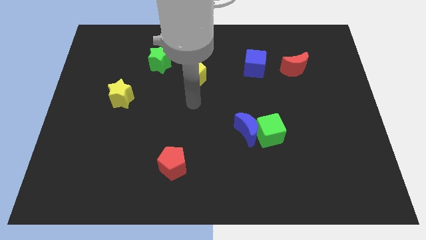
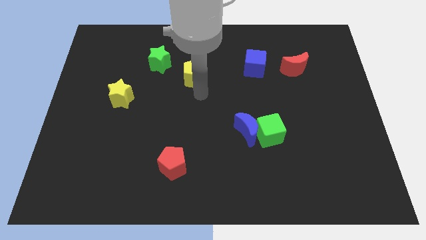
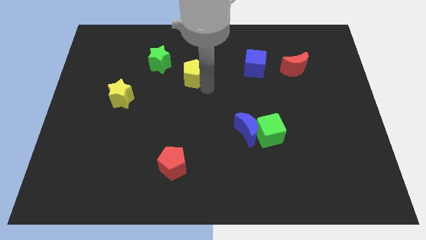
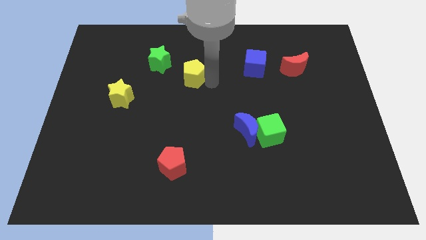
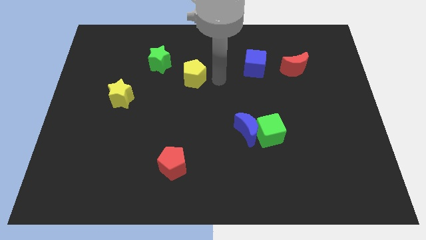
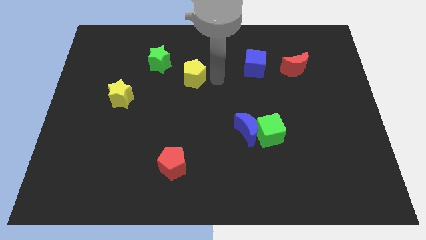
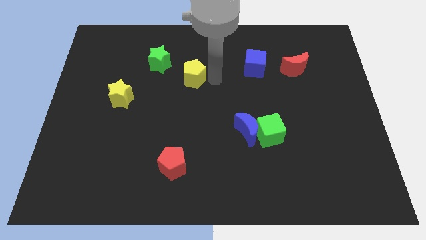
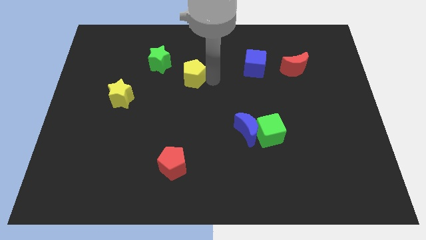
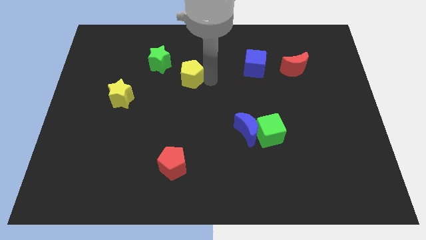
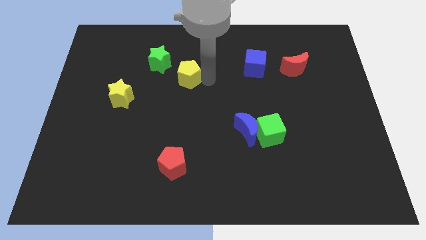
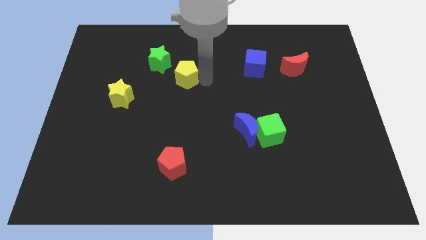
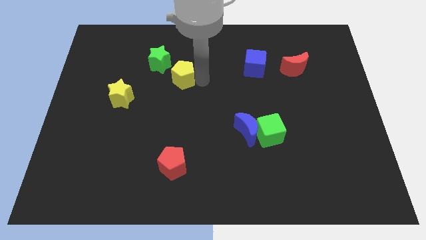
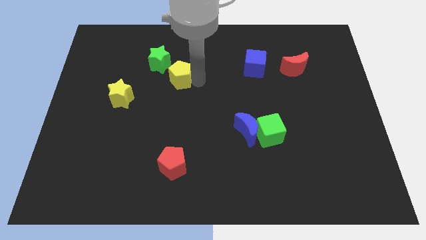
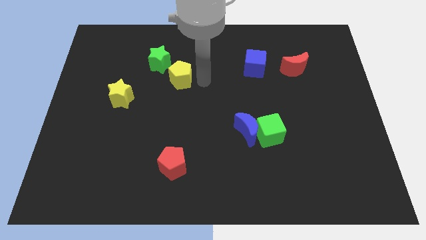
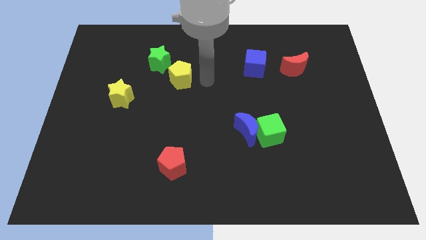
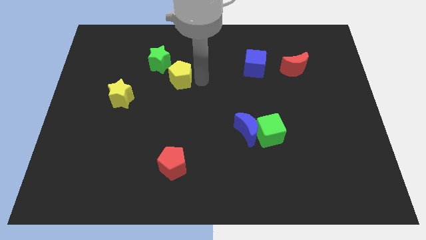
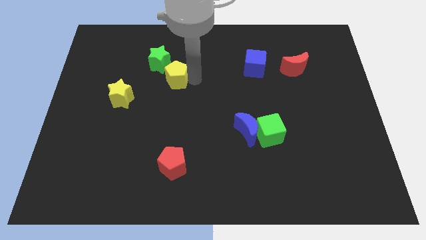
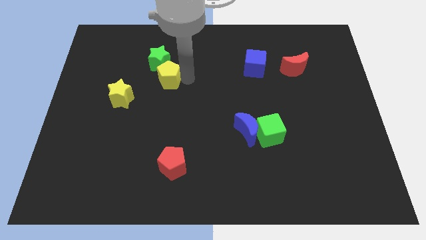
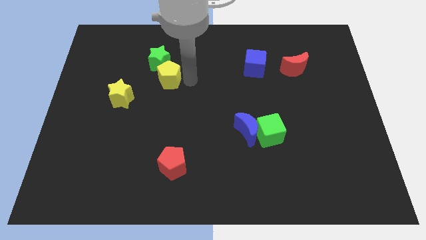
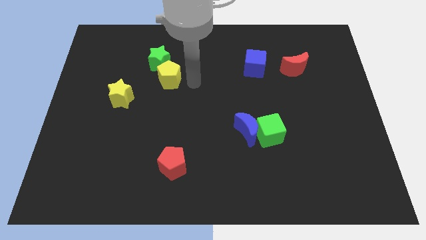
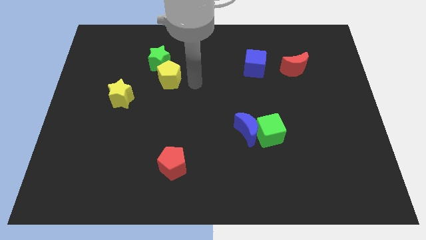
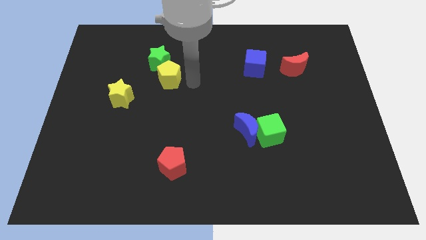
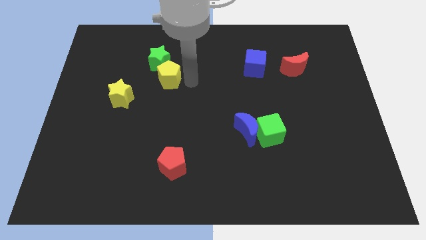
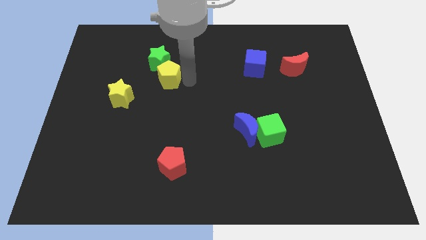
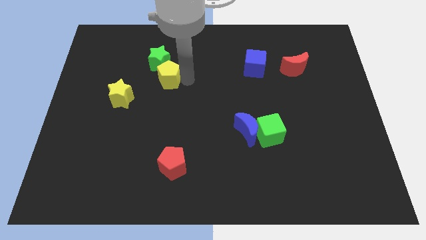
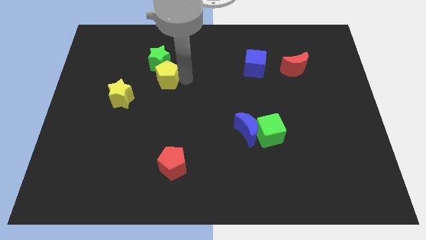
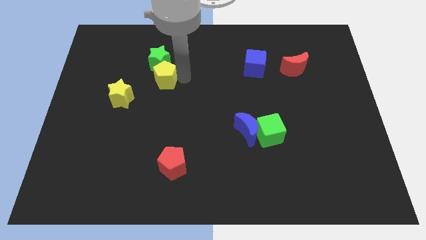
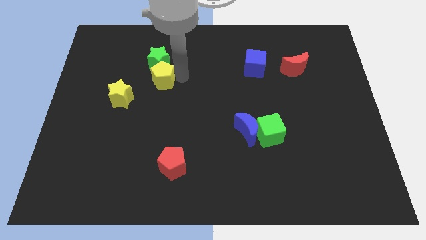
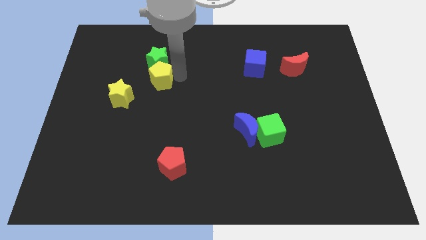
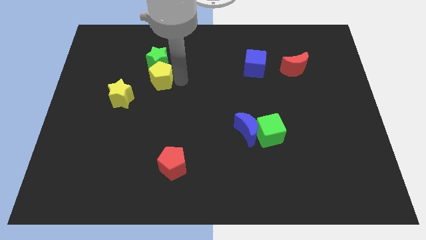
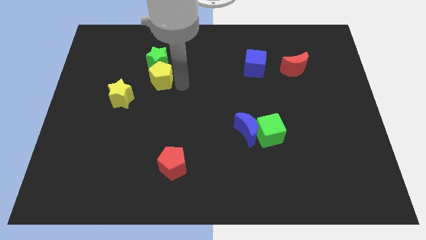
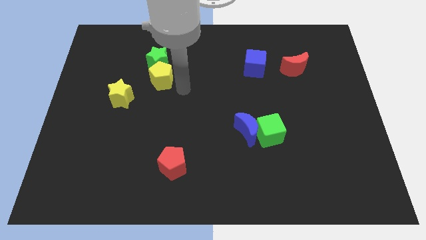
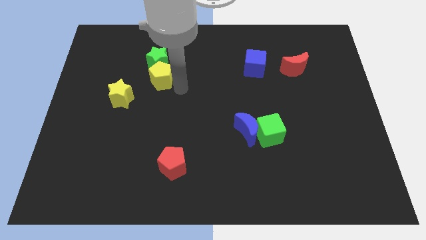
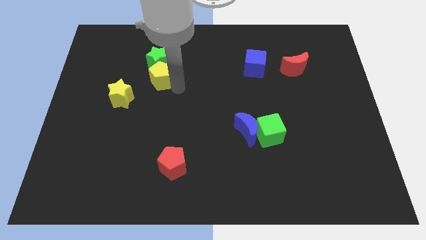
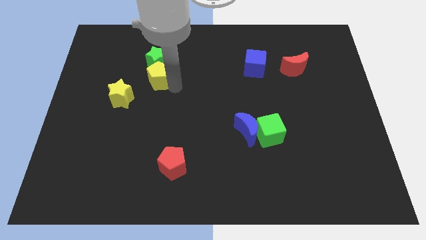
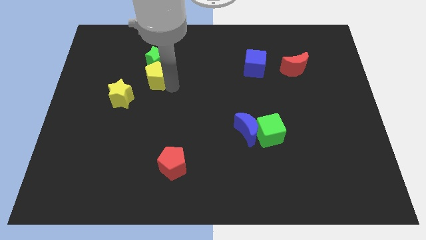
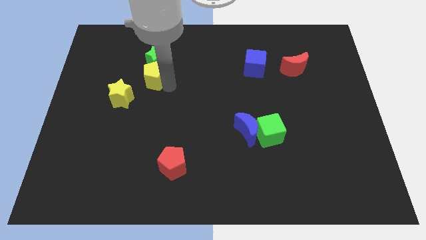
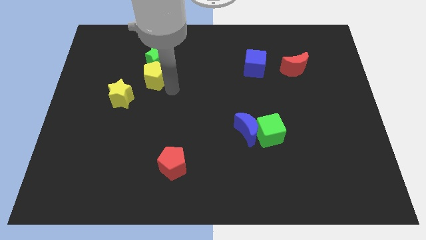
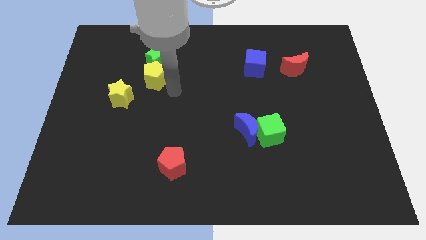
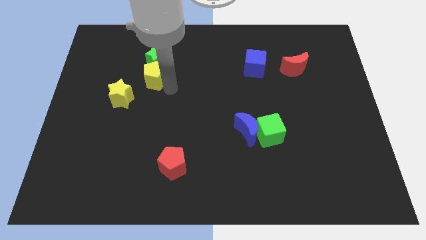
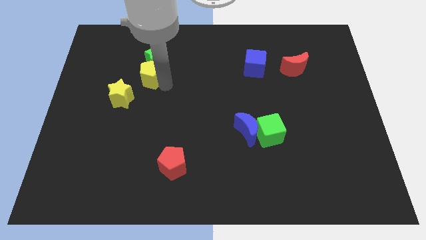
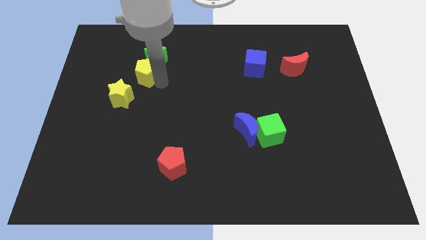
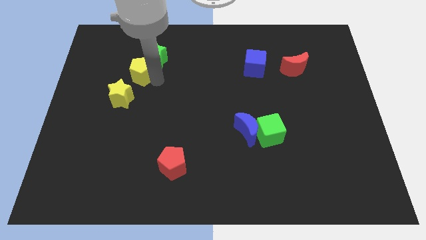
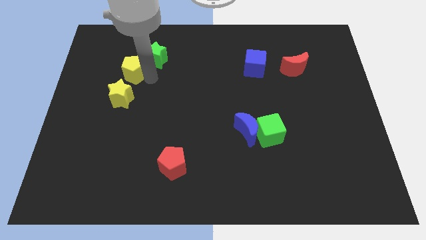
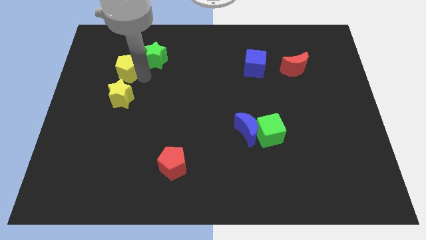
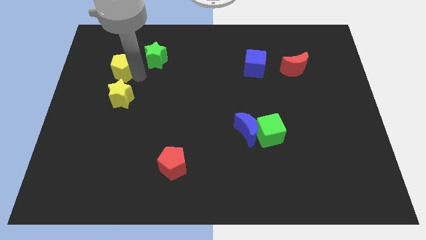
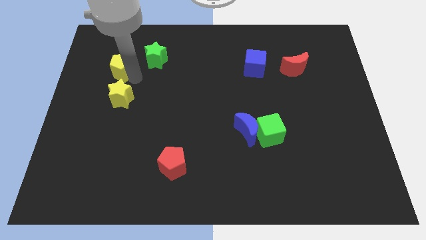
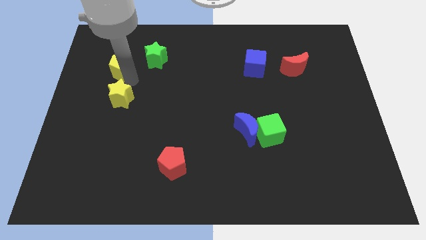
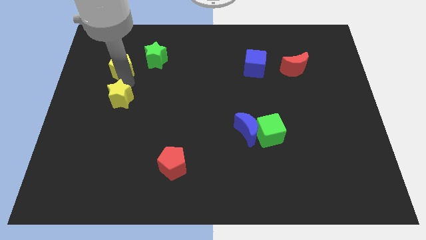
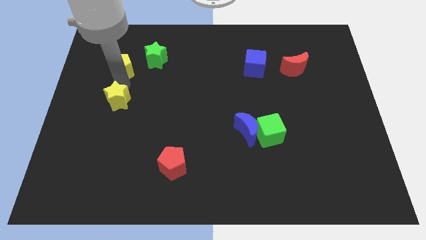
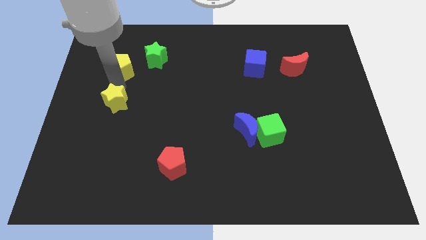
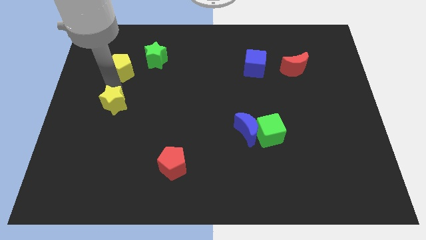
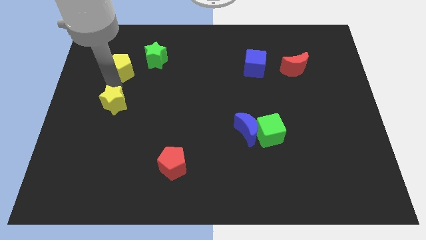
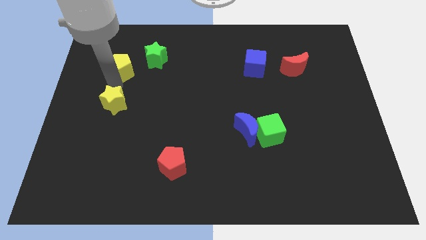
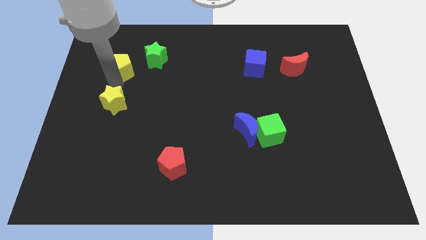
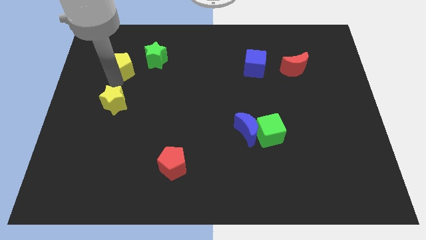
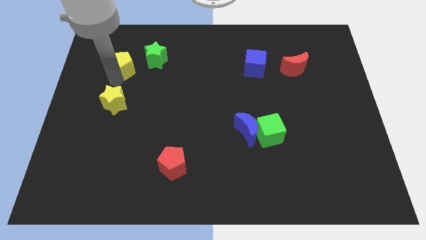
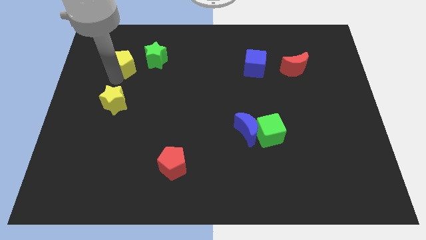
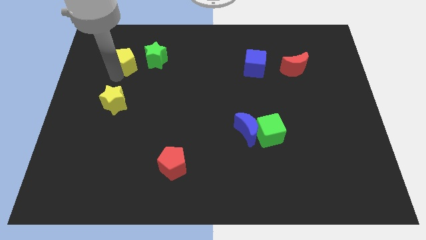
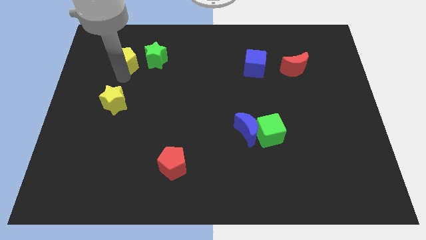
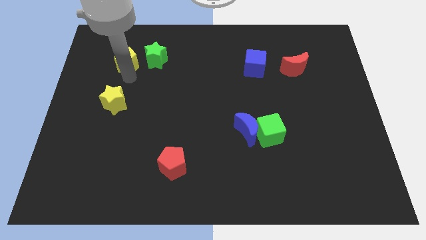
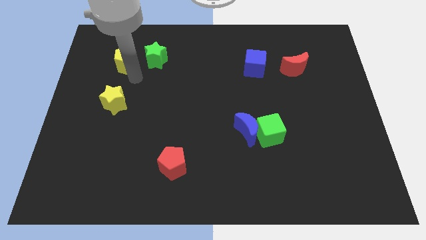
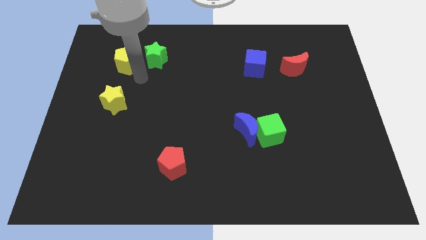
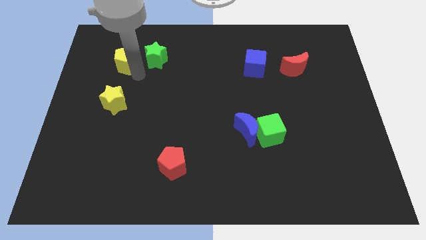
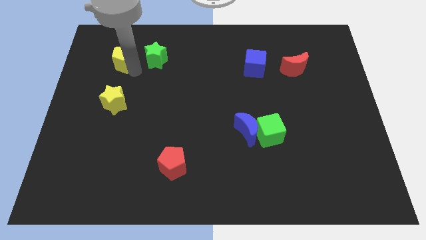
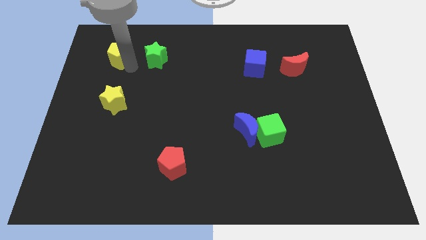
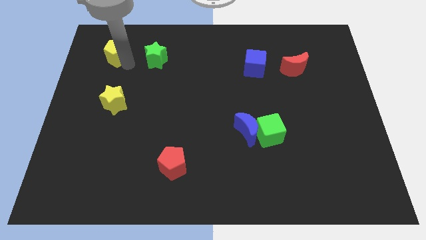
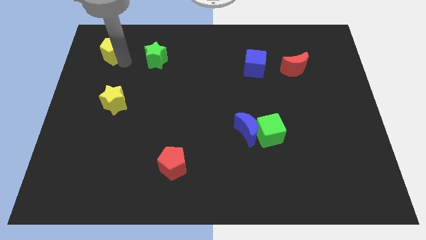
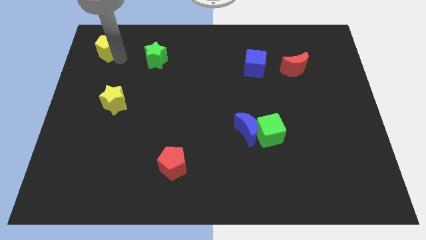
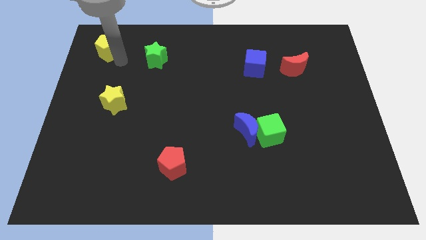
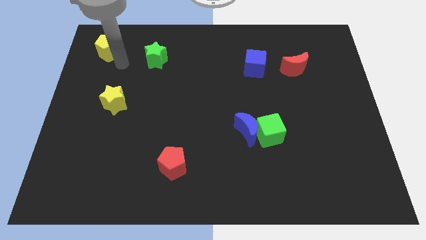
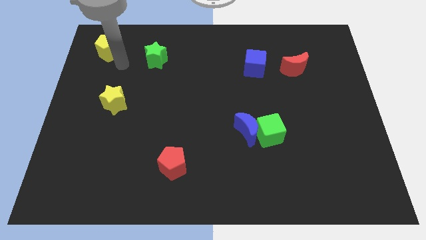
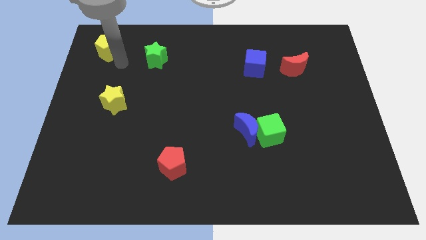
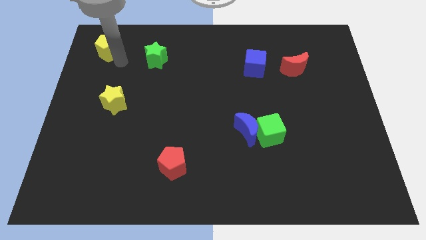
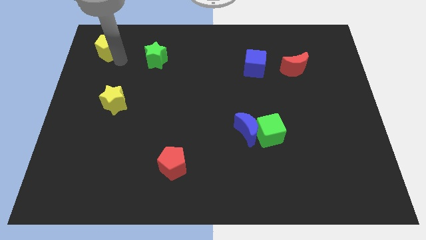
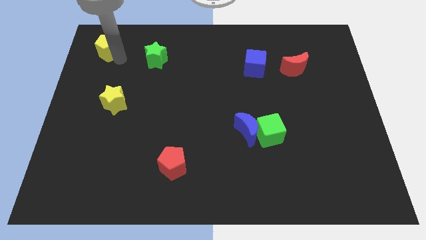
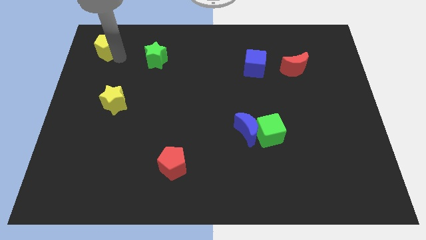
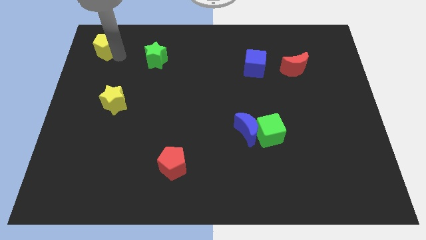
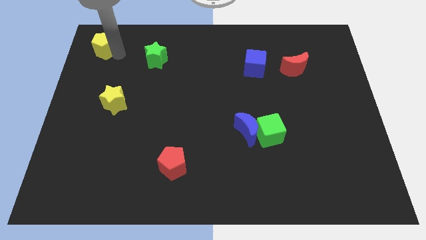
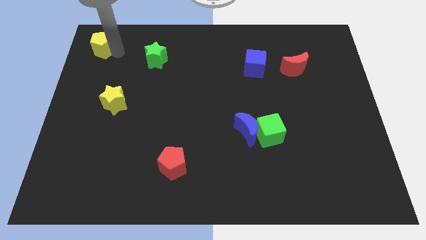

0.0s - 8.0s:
put the yellow pentagon to the top left of the board
